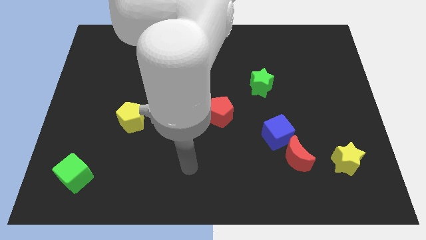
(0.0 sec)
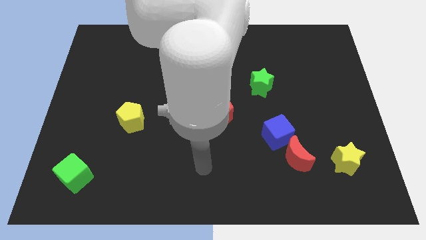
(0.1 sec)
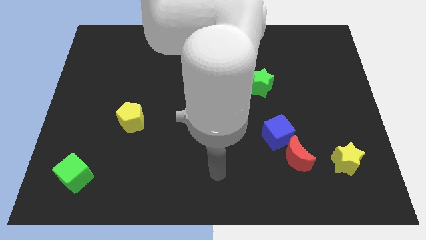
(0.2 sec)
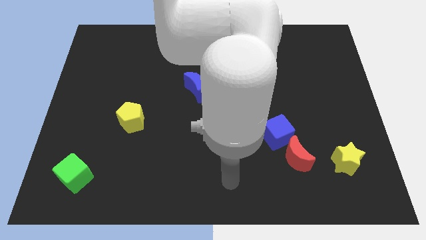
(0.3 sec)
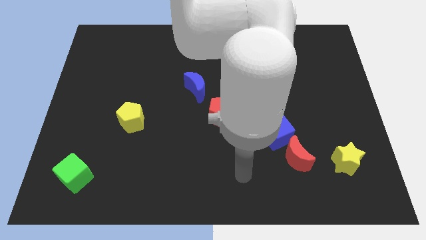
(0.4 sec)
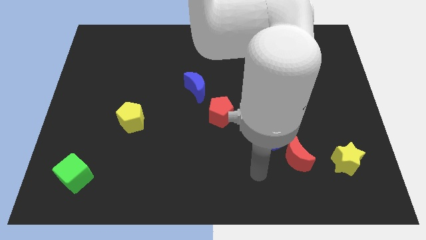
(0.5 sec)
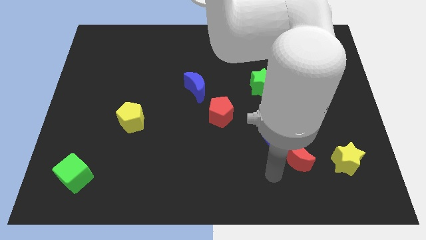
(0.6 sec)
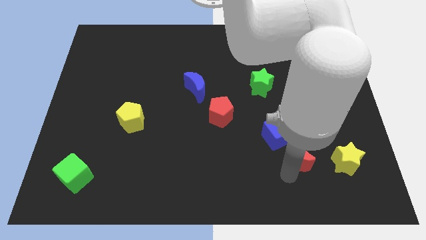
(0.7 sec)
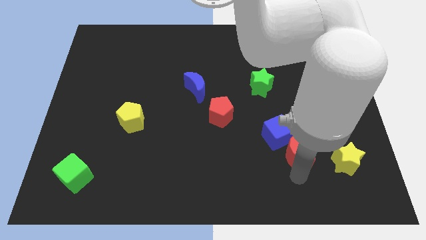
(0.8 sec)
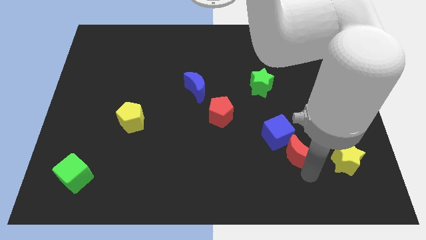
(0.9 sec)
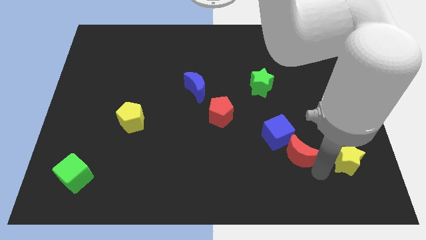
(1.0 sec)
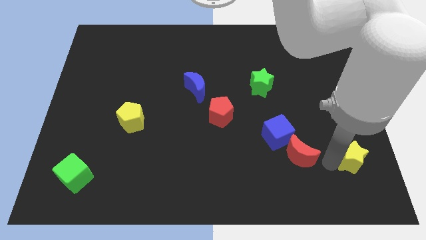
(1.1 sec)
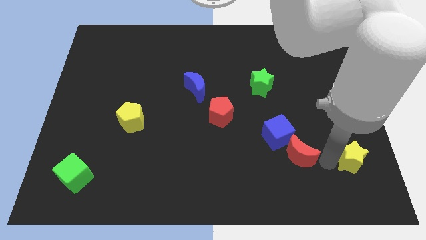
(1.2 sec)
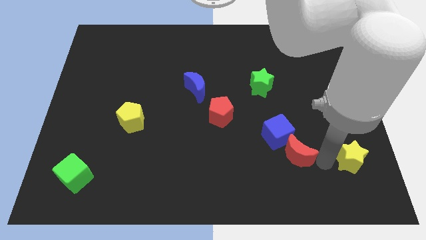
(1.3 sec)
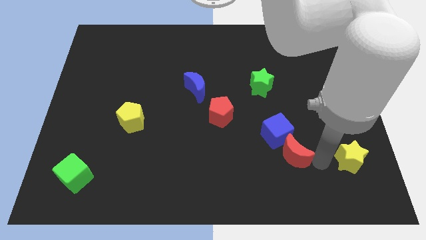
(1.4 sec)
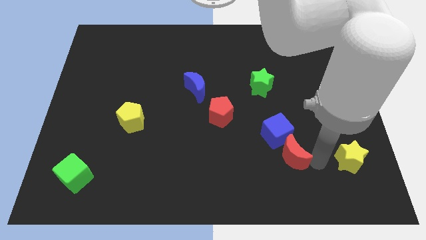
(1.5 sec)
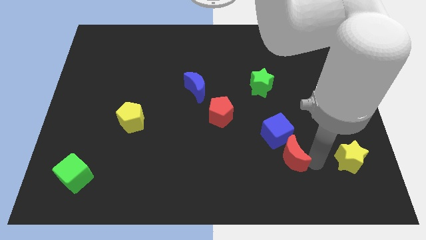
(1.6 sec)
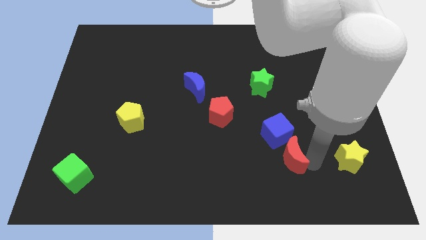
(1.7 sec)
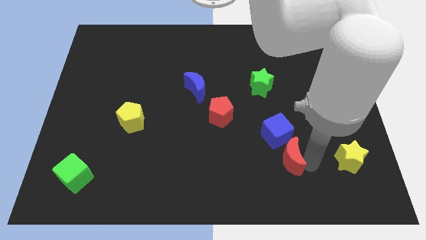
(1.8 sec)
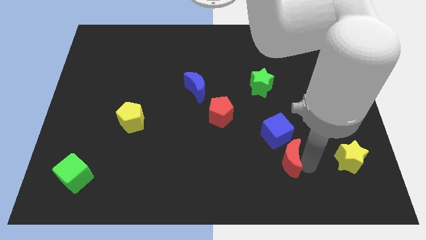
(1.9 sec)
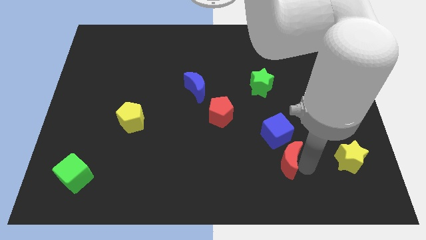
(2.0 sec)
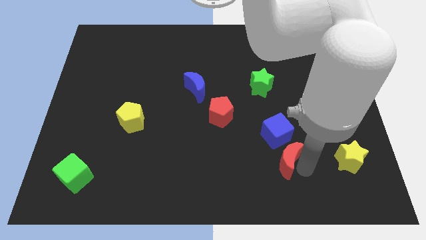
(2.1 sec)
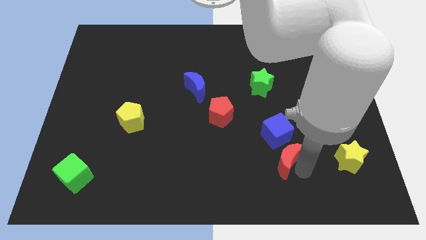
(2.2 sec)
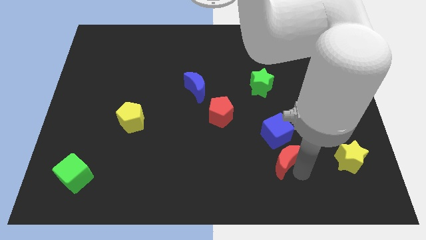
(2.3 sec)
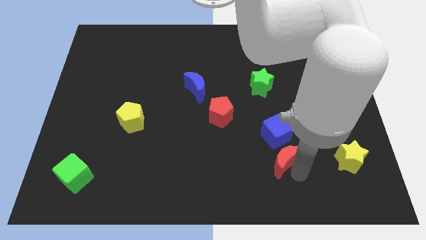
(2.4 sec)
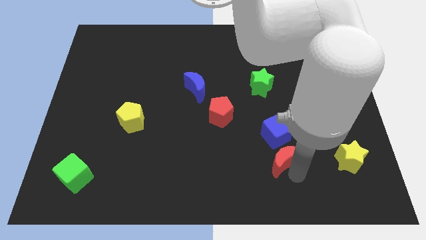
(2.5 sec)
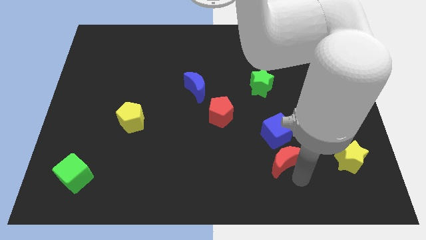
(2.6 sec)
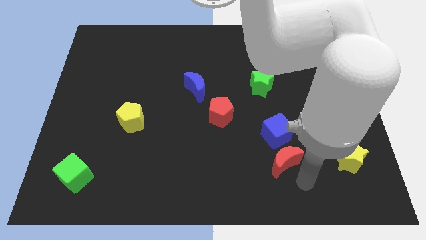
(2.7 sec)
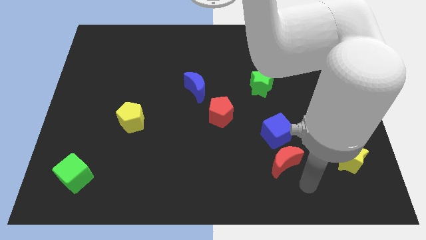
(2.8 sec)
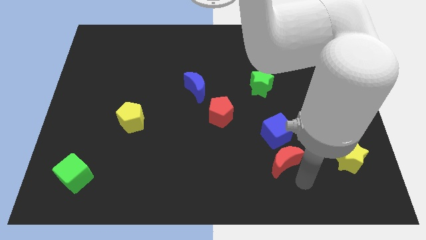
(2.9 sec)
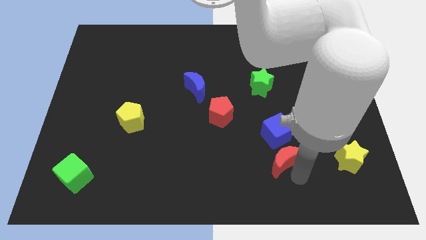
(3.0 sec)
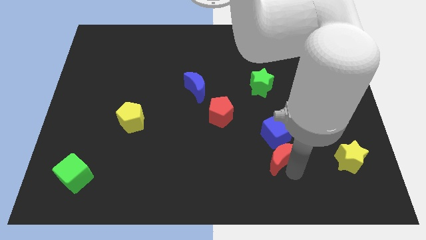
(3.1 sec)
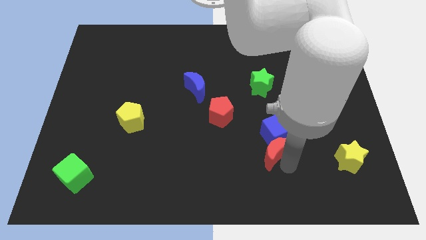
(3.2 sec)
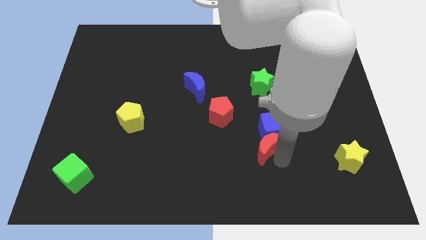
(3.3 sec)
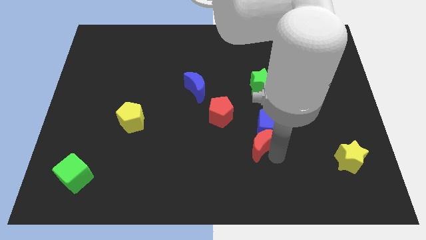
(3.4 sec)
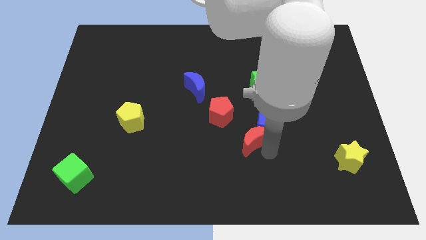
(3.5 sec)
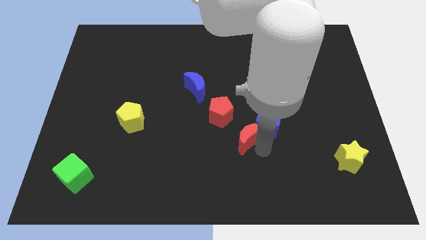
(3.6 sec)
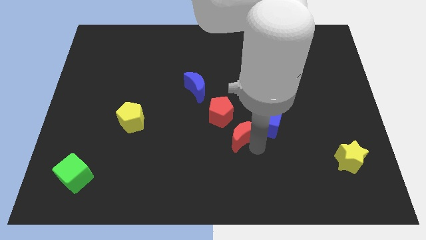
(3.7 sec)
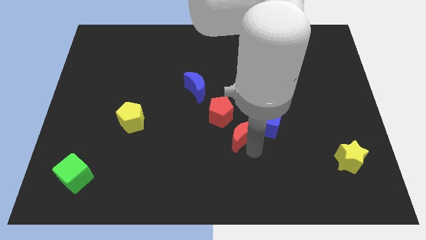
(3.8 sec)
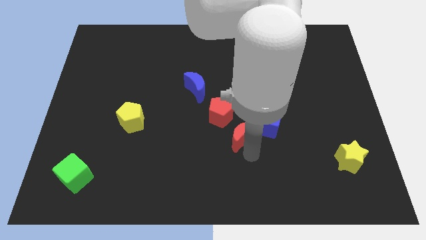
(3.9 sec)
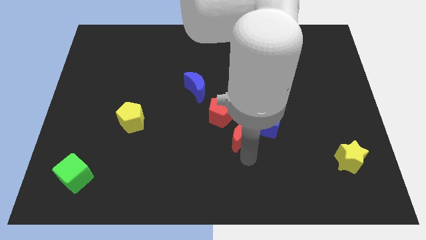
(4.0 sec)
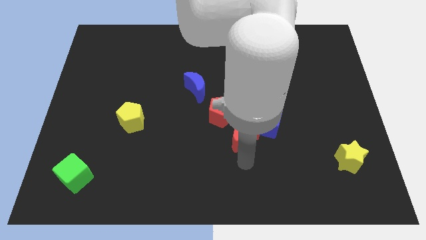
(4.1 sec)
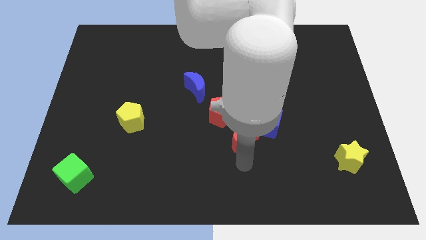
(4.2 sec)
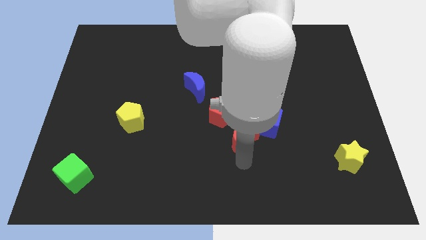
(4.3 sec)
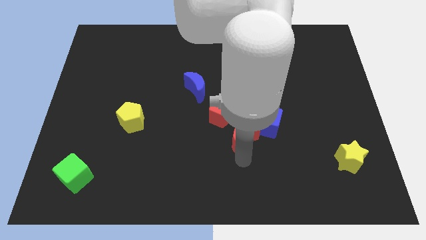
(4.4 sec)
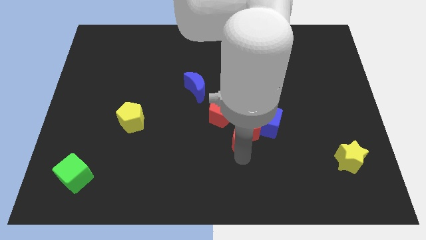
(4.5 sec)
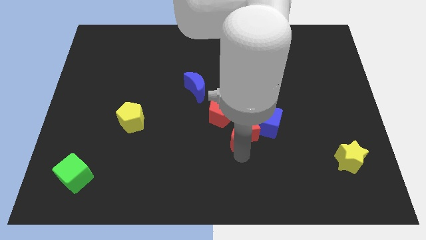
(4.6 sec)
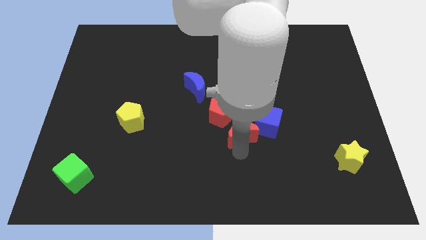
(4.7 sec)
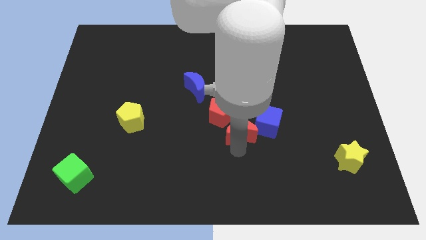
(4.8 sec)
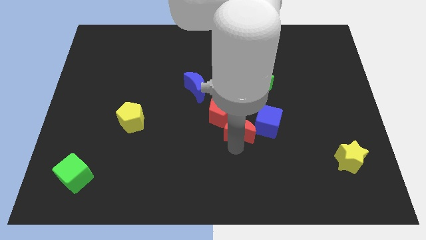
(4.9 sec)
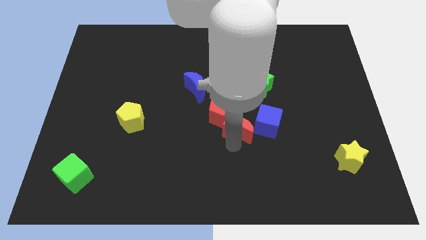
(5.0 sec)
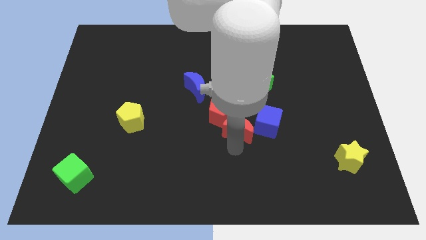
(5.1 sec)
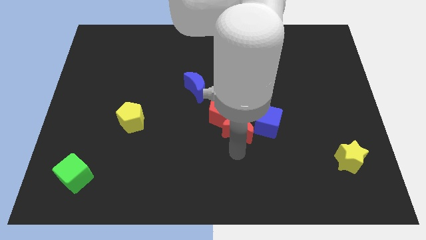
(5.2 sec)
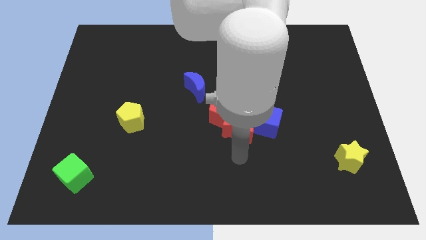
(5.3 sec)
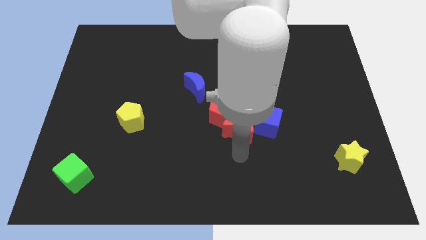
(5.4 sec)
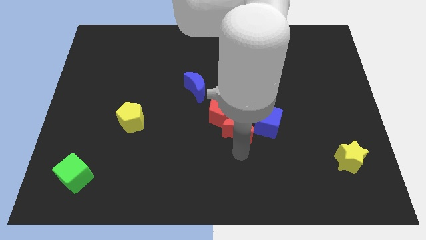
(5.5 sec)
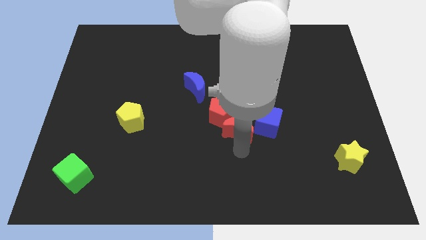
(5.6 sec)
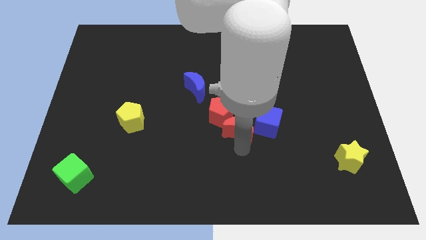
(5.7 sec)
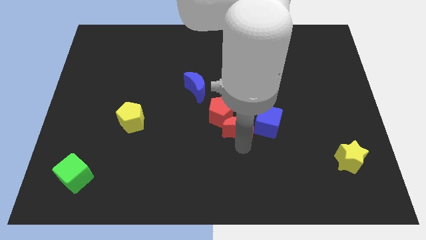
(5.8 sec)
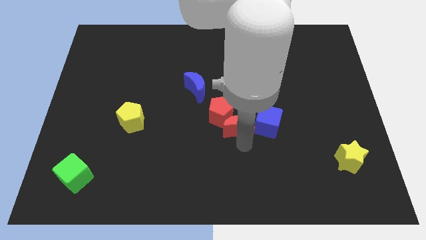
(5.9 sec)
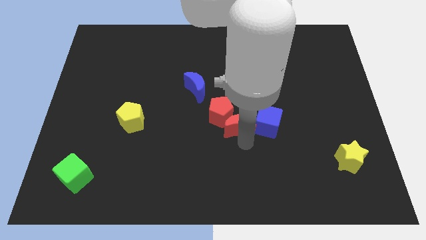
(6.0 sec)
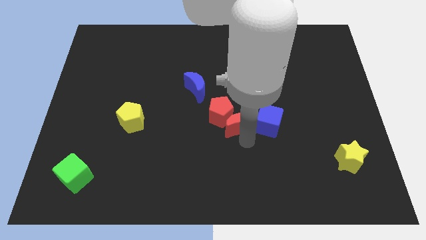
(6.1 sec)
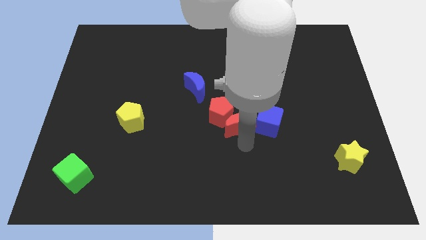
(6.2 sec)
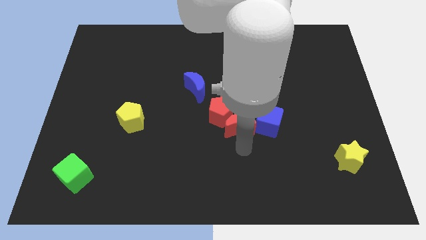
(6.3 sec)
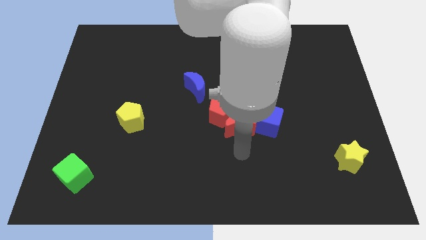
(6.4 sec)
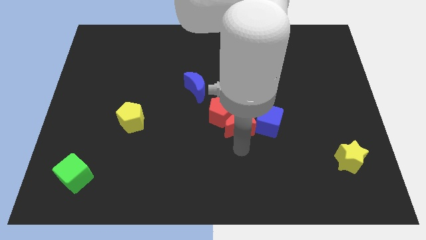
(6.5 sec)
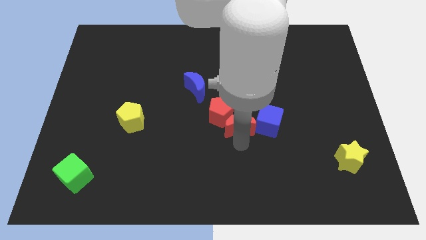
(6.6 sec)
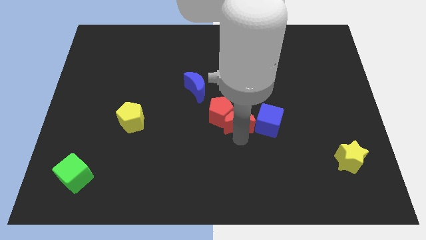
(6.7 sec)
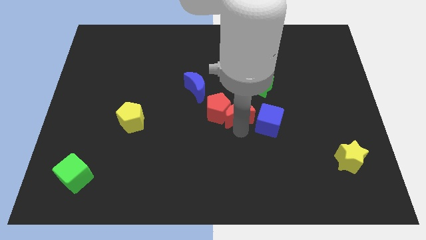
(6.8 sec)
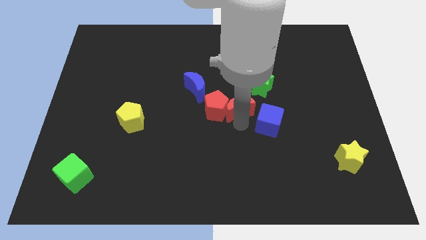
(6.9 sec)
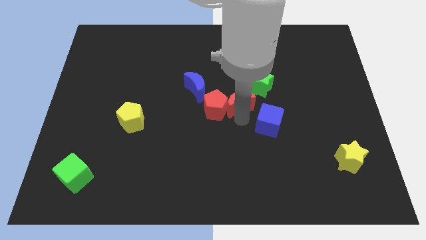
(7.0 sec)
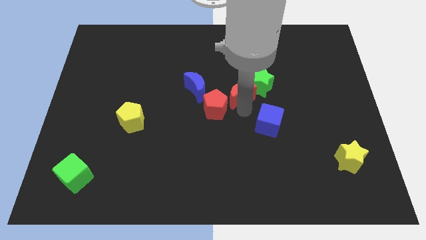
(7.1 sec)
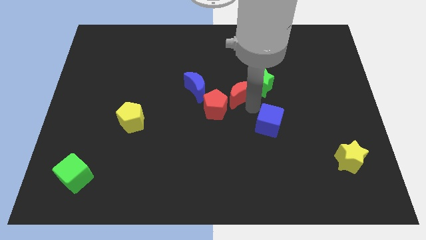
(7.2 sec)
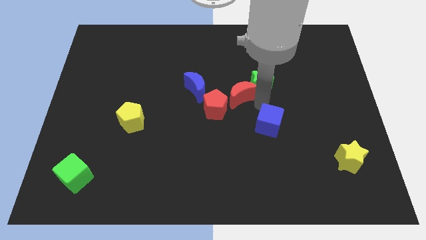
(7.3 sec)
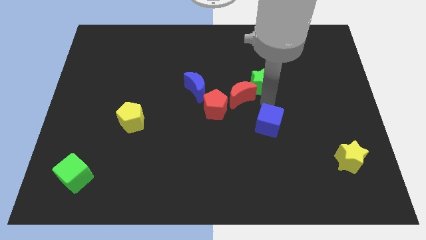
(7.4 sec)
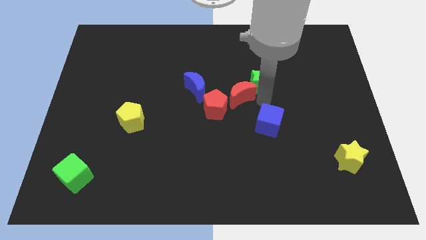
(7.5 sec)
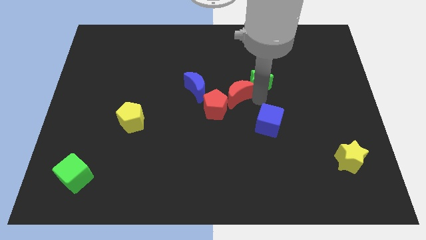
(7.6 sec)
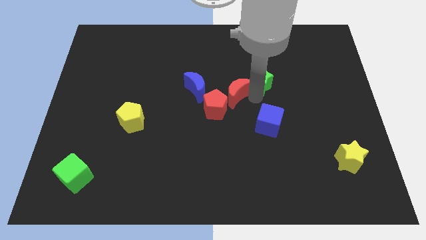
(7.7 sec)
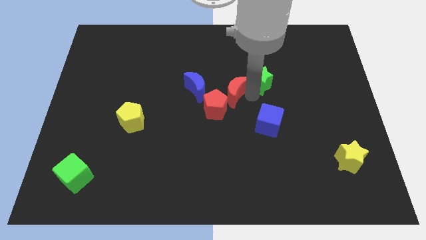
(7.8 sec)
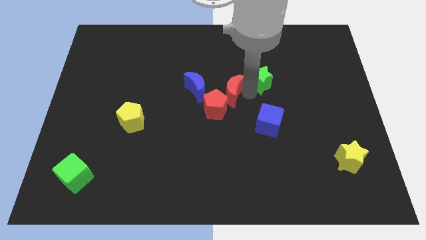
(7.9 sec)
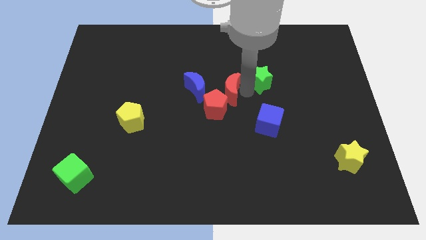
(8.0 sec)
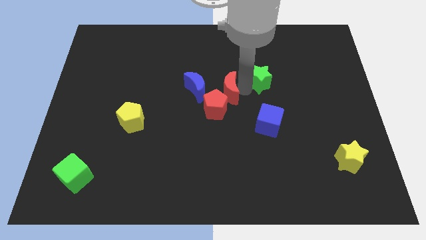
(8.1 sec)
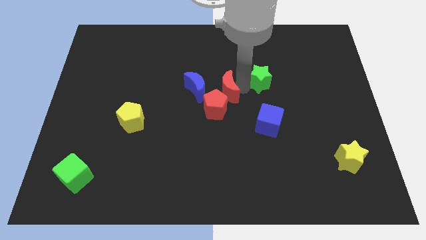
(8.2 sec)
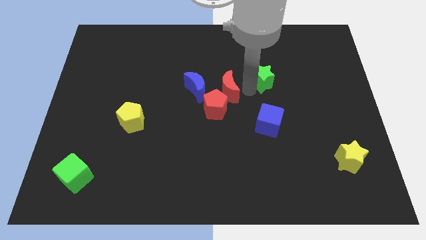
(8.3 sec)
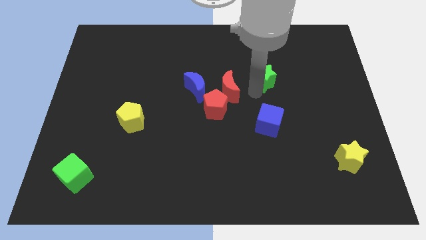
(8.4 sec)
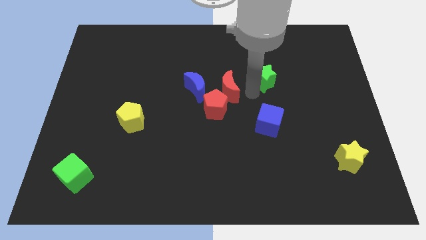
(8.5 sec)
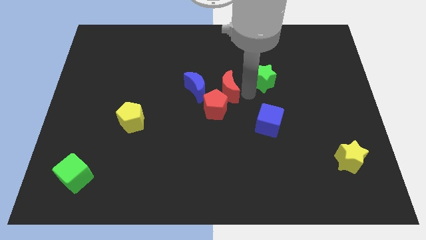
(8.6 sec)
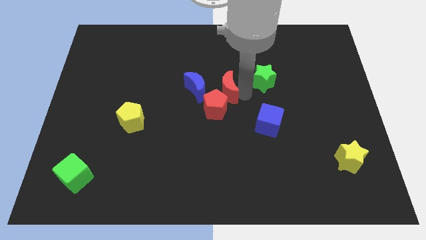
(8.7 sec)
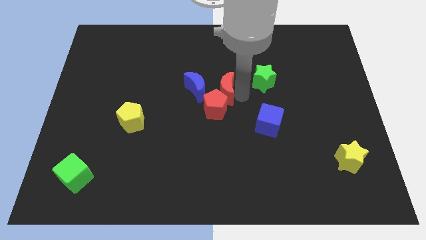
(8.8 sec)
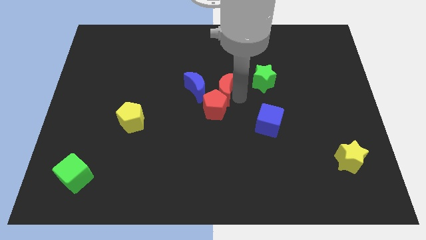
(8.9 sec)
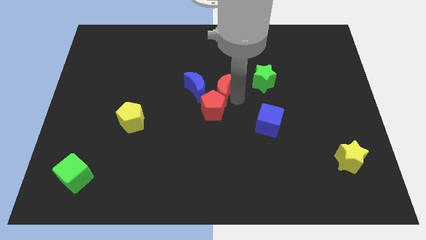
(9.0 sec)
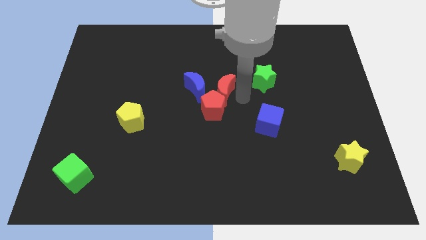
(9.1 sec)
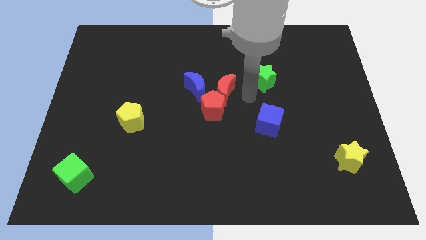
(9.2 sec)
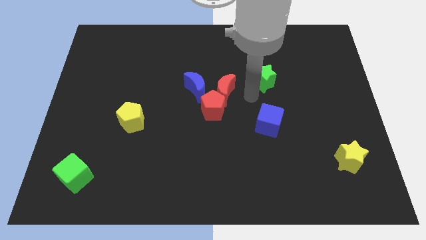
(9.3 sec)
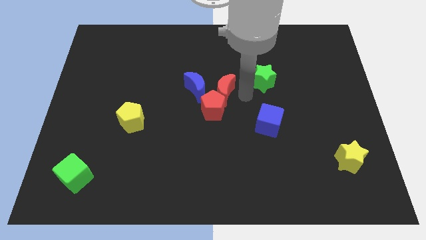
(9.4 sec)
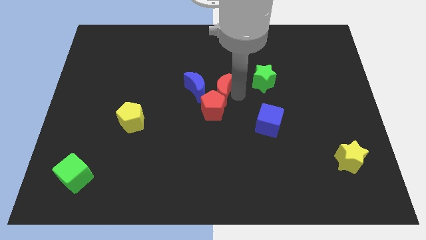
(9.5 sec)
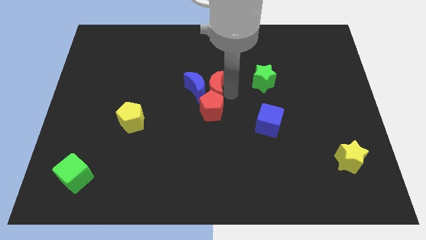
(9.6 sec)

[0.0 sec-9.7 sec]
slide the red moon to the blue moon
